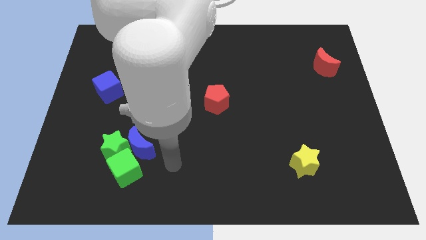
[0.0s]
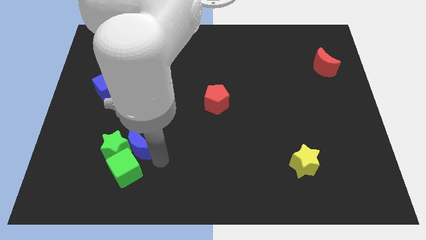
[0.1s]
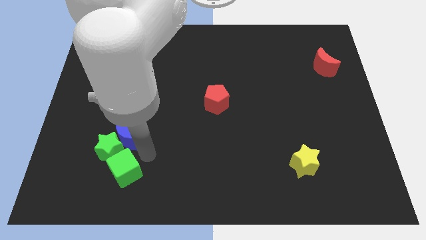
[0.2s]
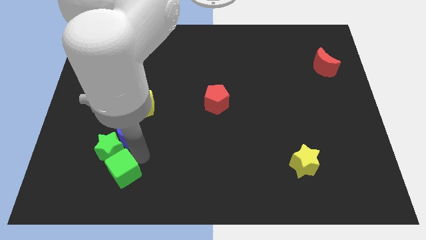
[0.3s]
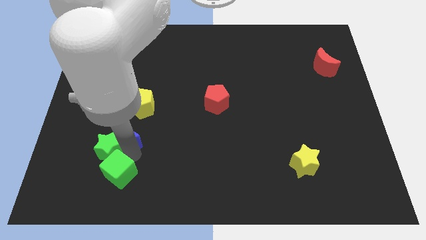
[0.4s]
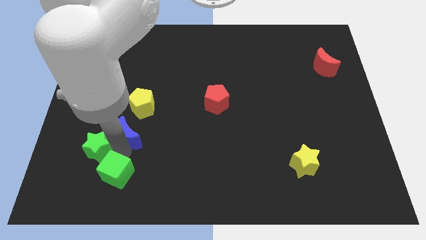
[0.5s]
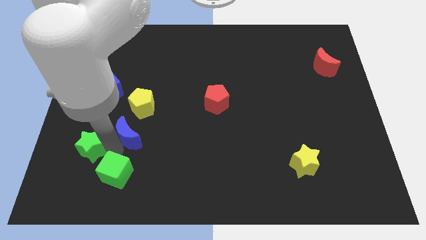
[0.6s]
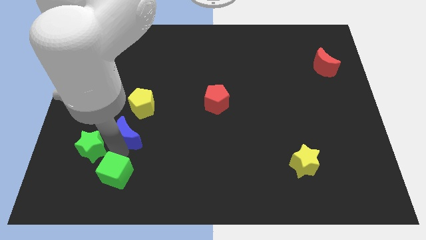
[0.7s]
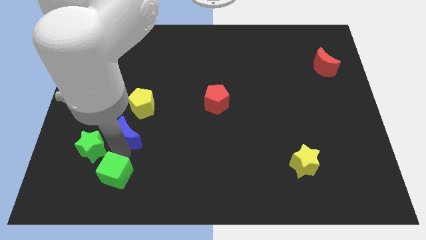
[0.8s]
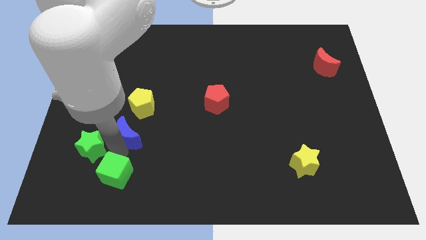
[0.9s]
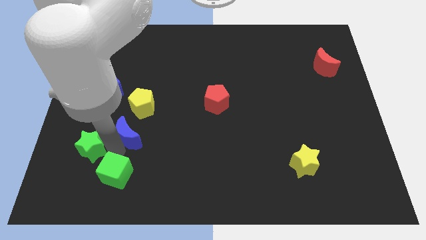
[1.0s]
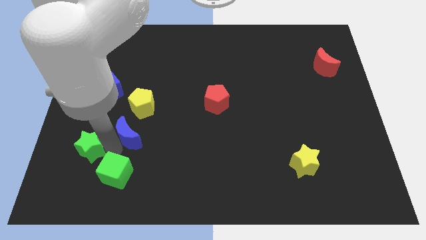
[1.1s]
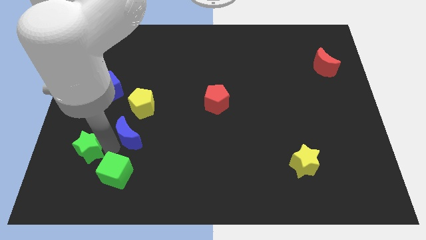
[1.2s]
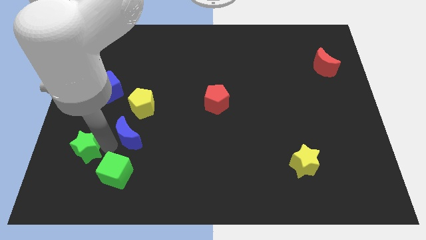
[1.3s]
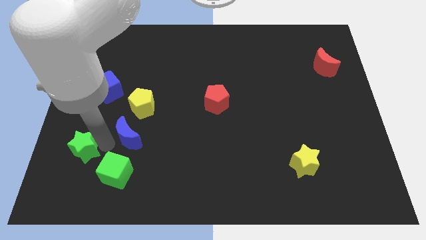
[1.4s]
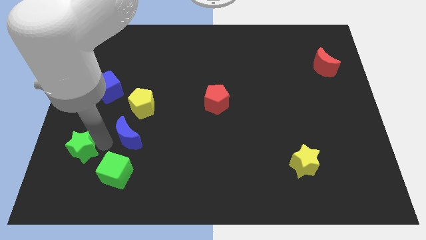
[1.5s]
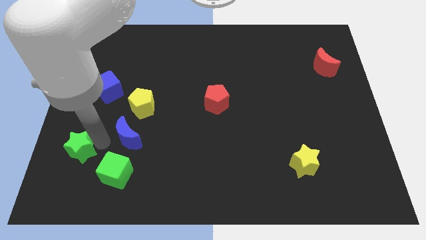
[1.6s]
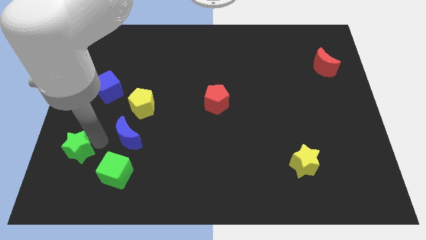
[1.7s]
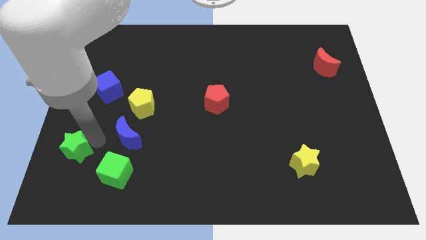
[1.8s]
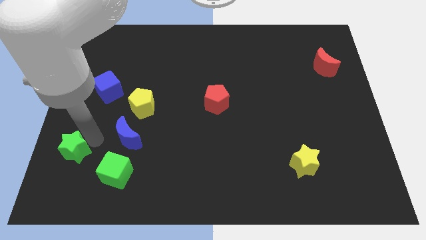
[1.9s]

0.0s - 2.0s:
separate the green star from the blue moon and green cube

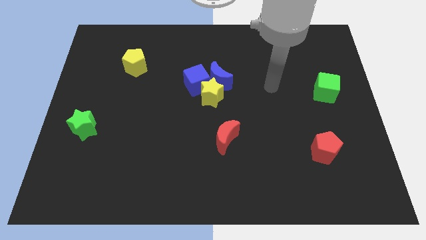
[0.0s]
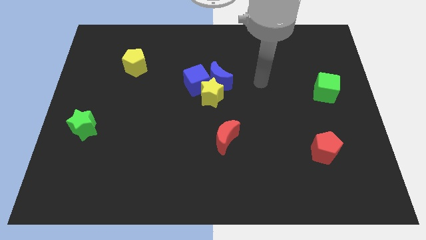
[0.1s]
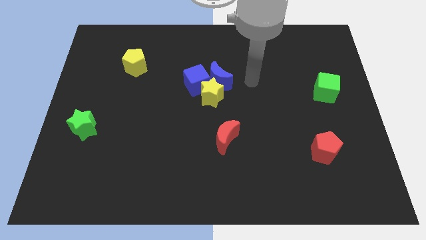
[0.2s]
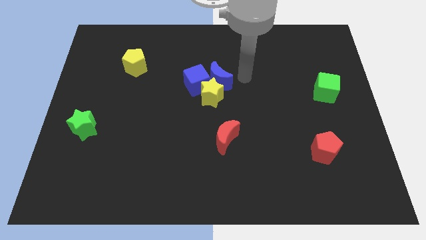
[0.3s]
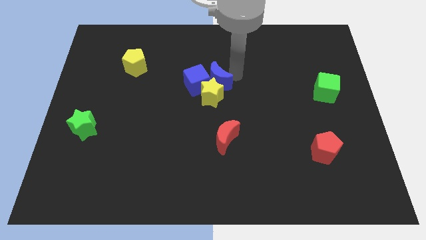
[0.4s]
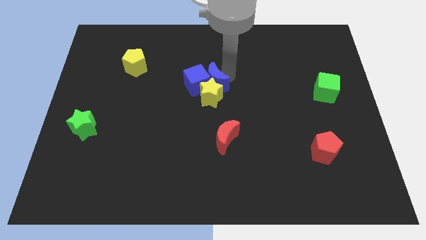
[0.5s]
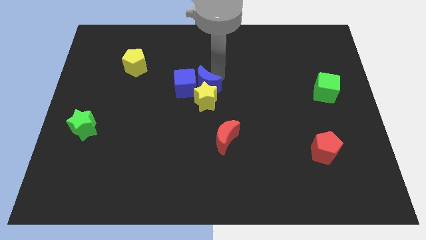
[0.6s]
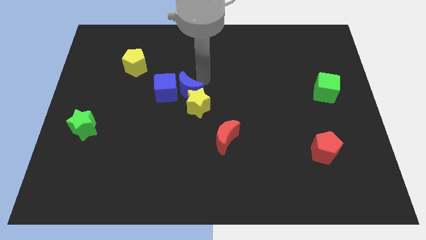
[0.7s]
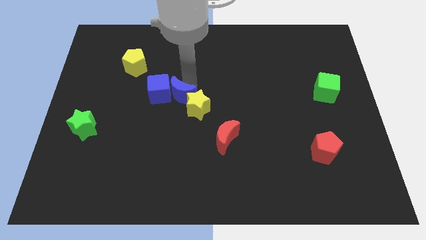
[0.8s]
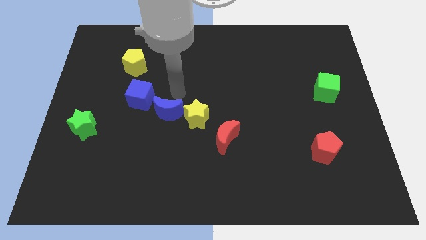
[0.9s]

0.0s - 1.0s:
pull the yellow star apart from the blue cube and blue moon

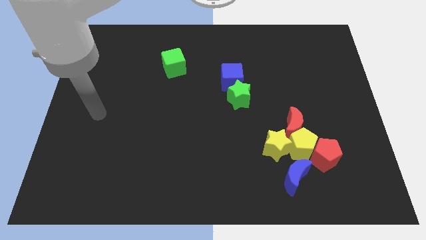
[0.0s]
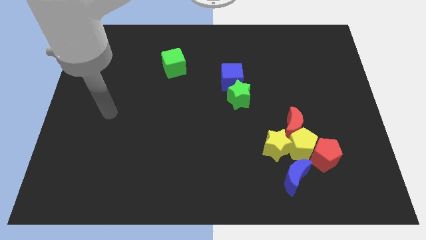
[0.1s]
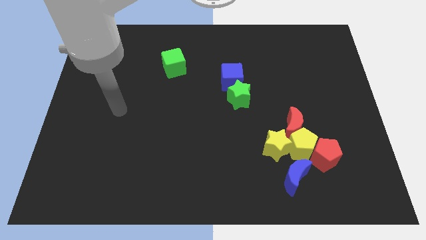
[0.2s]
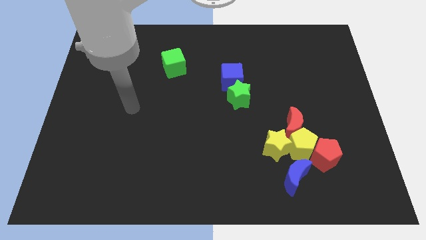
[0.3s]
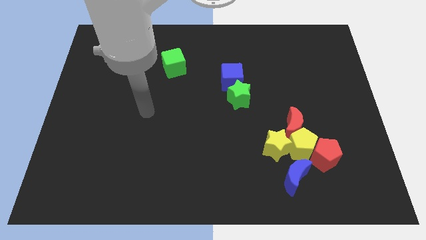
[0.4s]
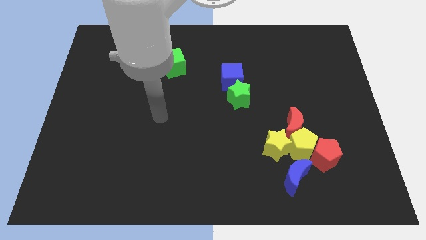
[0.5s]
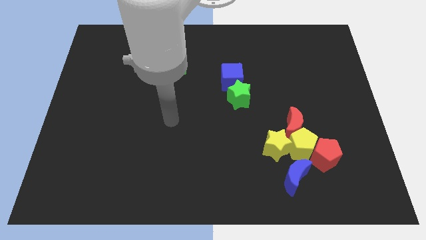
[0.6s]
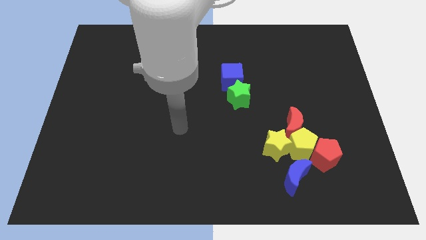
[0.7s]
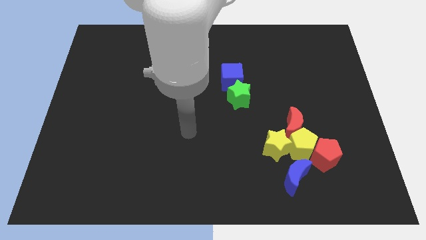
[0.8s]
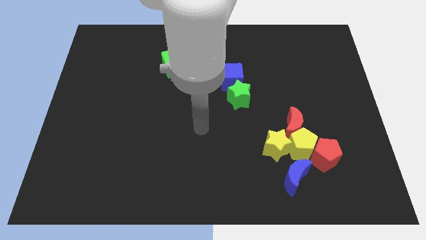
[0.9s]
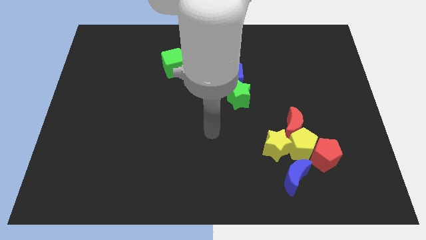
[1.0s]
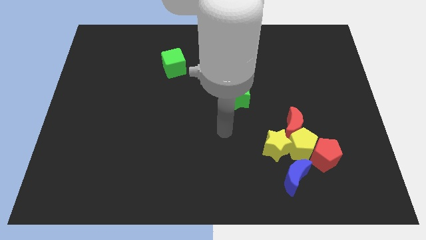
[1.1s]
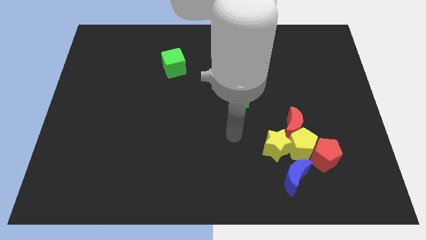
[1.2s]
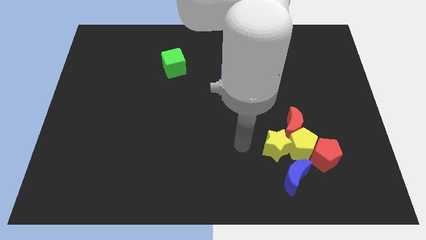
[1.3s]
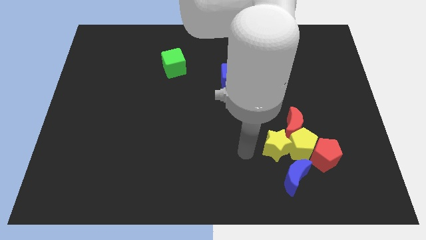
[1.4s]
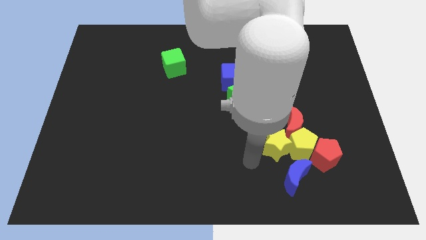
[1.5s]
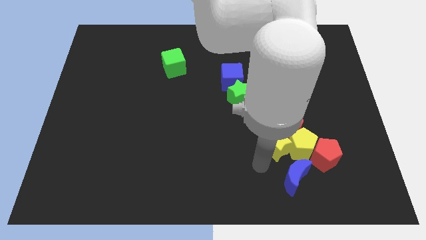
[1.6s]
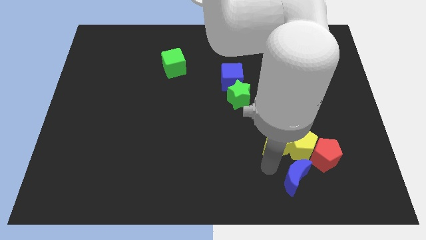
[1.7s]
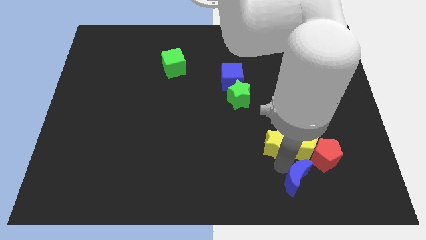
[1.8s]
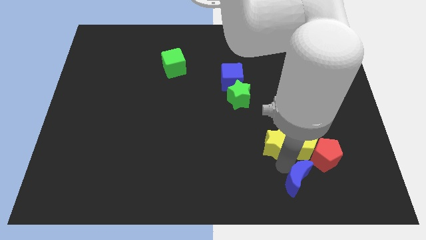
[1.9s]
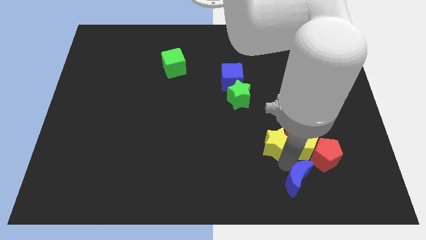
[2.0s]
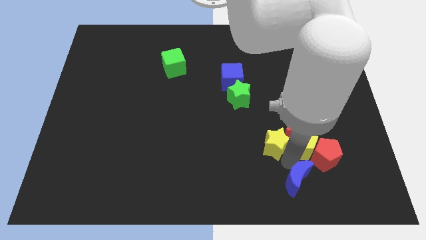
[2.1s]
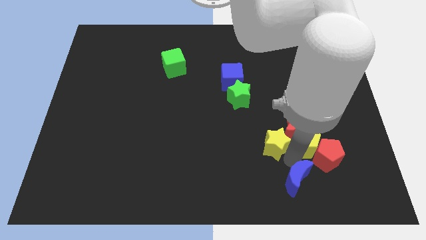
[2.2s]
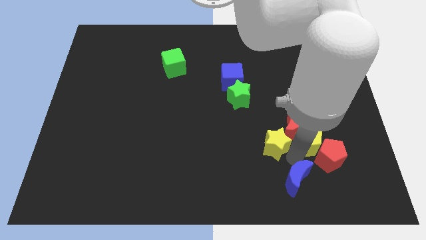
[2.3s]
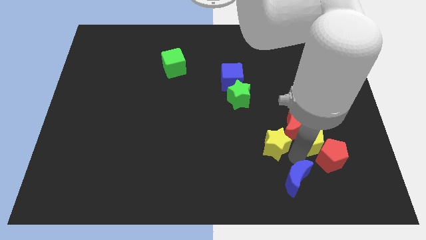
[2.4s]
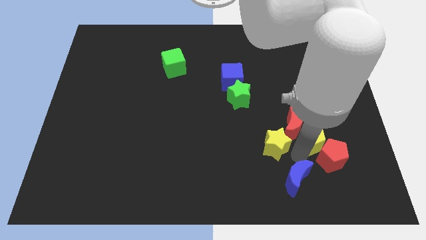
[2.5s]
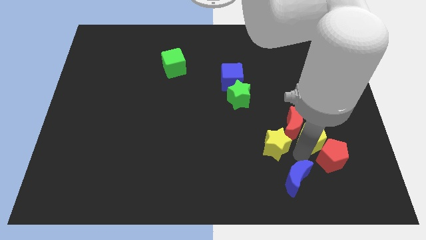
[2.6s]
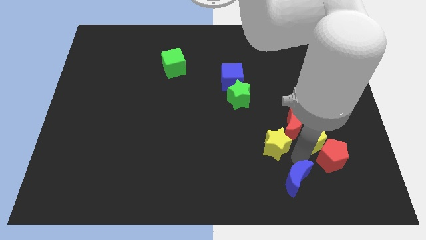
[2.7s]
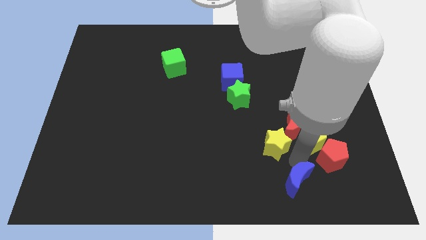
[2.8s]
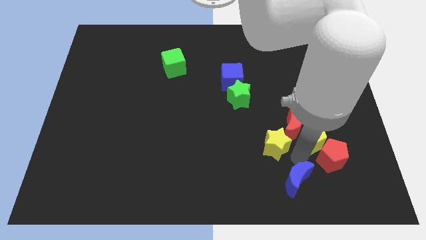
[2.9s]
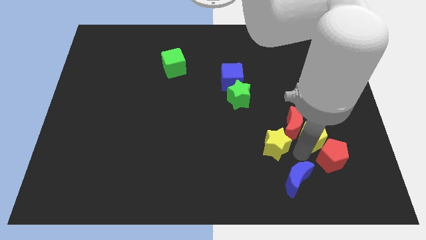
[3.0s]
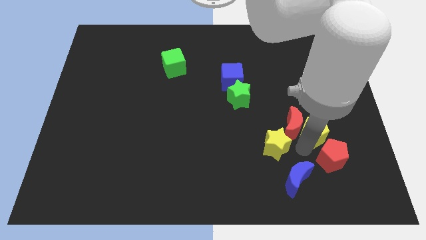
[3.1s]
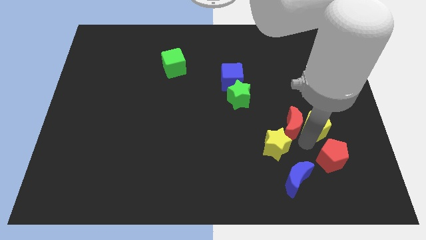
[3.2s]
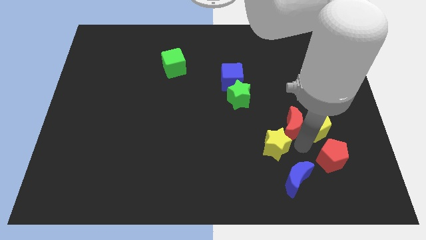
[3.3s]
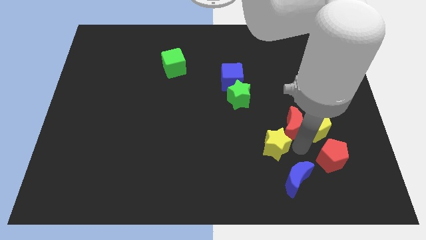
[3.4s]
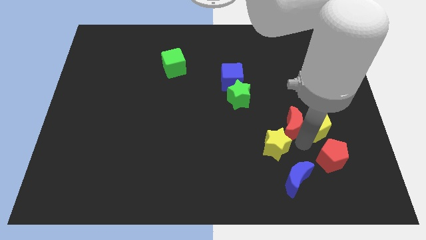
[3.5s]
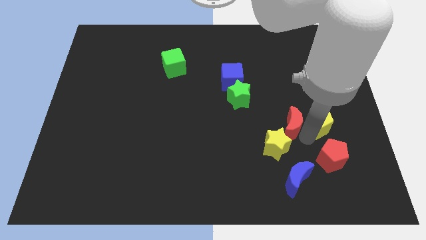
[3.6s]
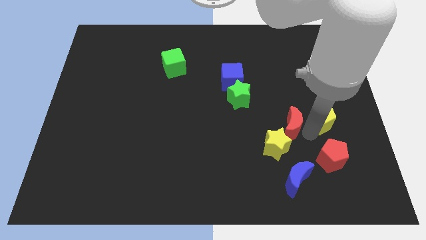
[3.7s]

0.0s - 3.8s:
move the yellow pentagon away from the group

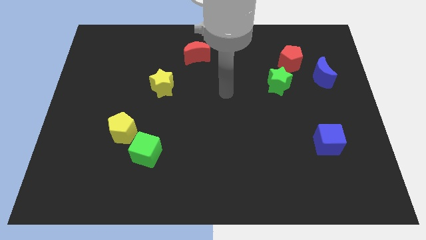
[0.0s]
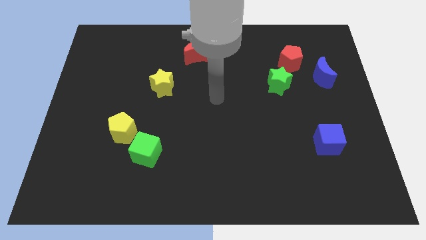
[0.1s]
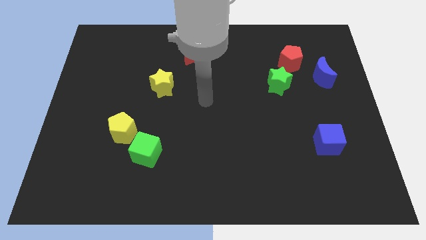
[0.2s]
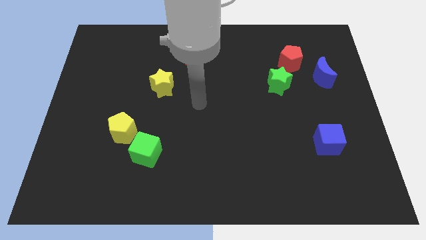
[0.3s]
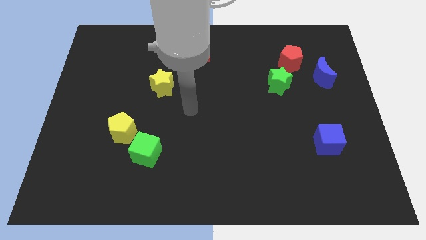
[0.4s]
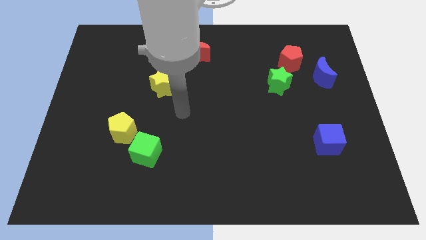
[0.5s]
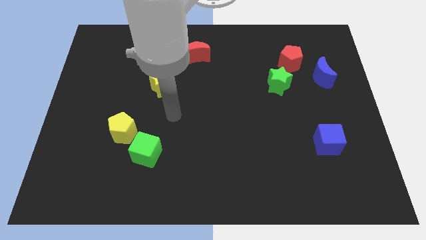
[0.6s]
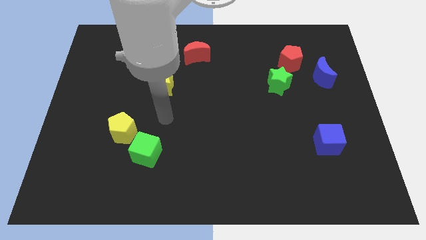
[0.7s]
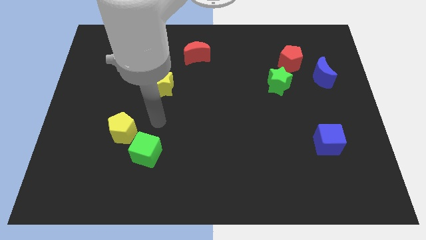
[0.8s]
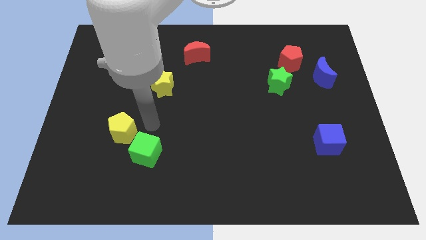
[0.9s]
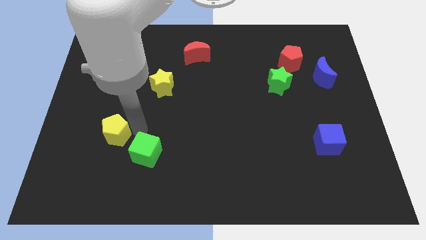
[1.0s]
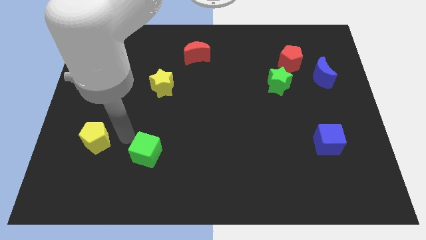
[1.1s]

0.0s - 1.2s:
separate the green cube from the yellow pentagon

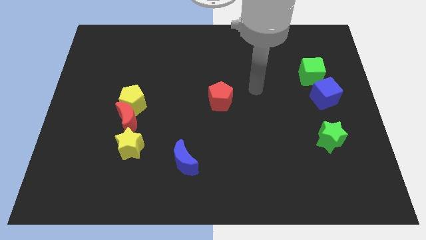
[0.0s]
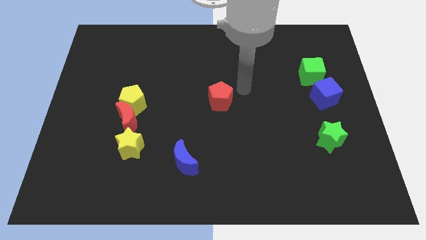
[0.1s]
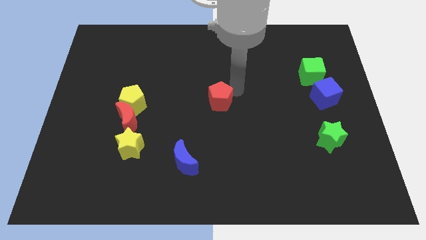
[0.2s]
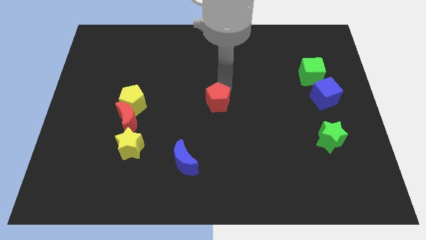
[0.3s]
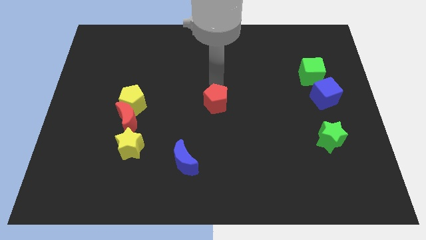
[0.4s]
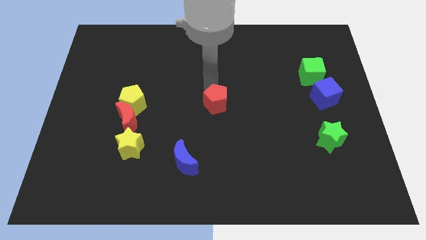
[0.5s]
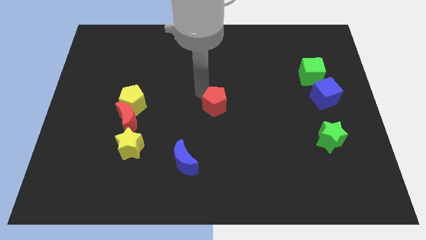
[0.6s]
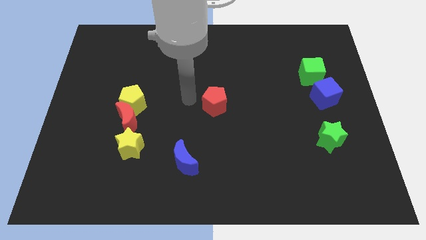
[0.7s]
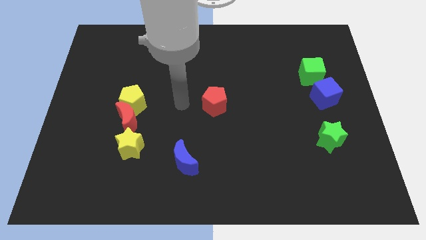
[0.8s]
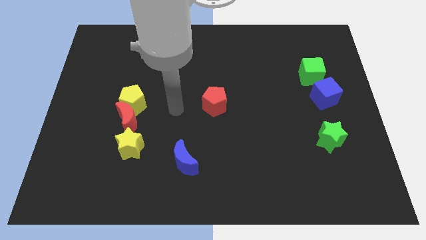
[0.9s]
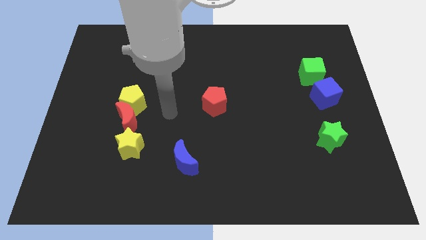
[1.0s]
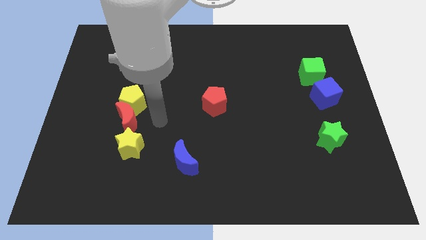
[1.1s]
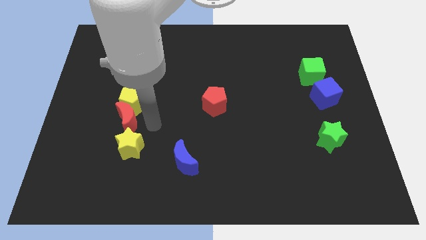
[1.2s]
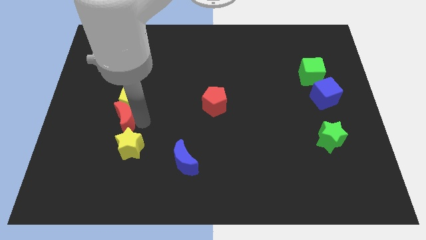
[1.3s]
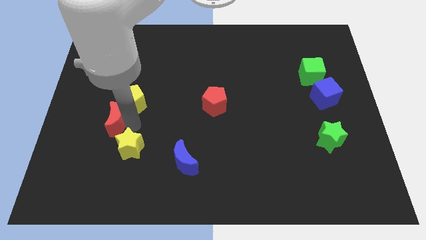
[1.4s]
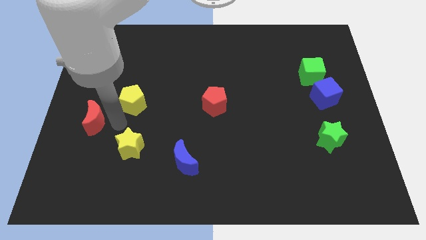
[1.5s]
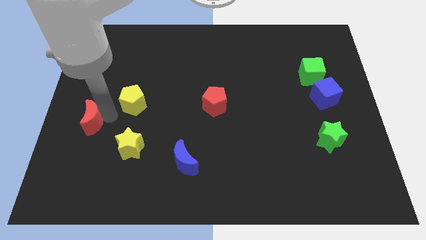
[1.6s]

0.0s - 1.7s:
pull the yellow pentagon apart from the red moon
